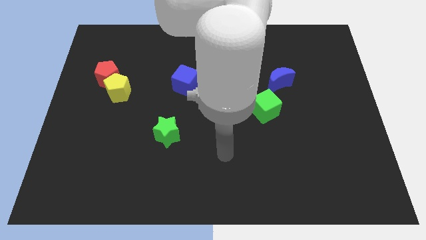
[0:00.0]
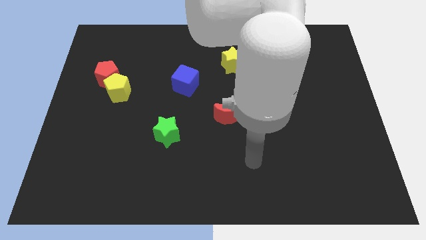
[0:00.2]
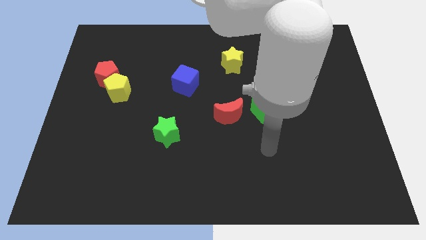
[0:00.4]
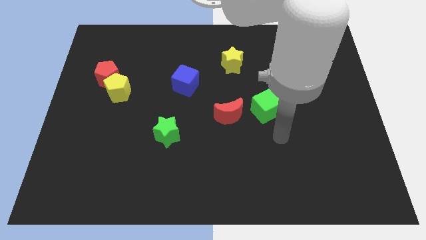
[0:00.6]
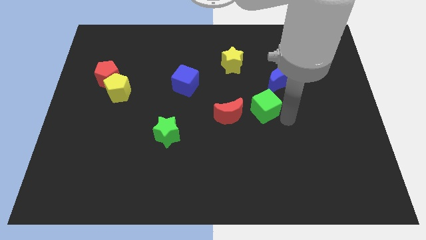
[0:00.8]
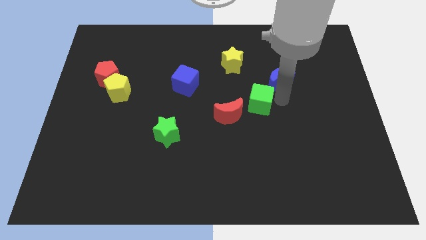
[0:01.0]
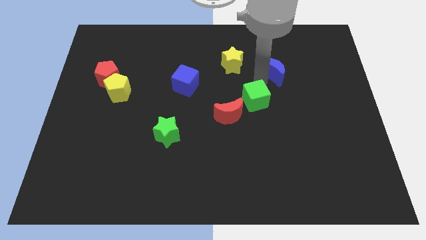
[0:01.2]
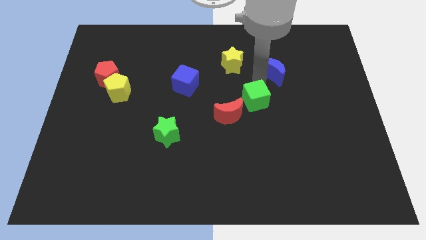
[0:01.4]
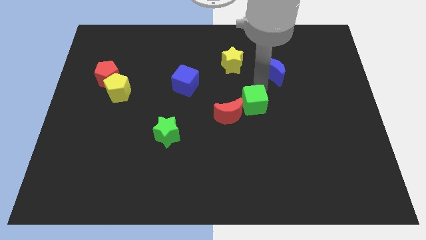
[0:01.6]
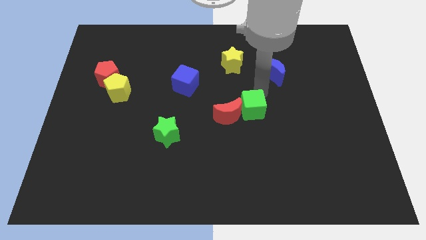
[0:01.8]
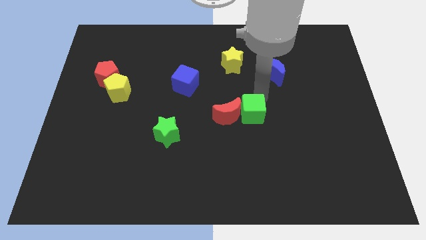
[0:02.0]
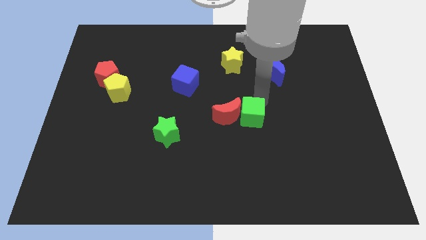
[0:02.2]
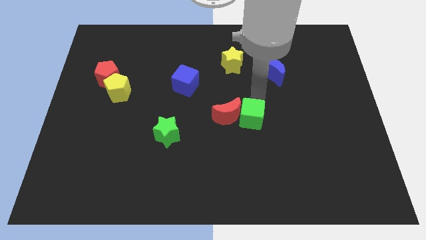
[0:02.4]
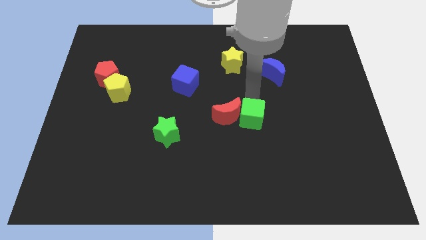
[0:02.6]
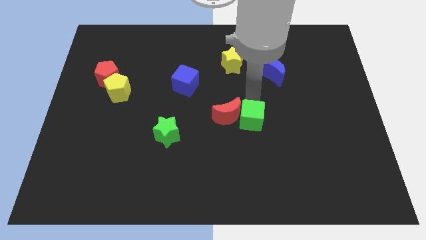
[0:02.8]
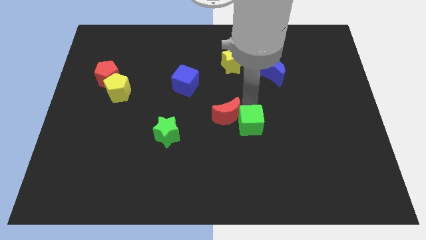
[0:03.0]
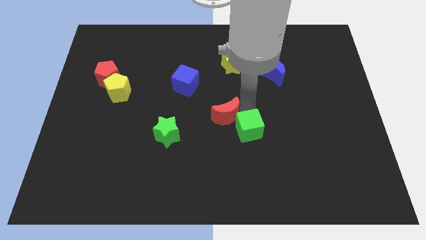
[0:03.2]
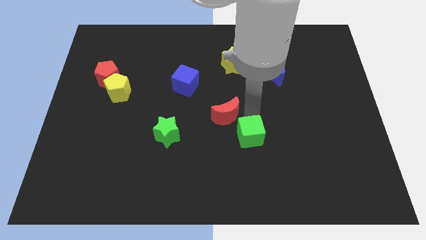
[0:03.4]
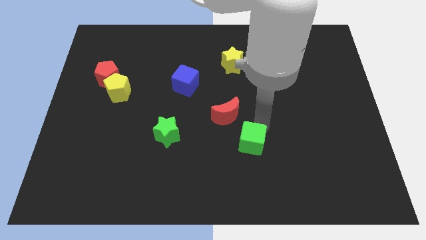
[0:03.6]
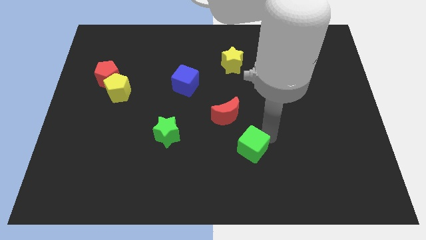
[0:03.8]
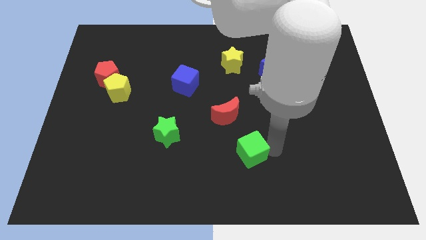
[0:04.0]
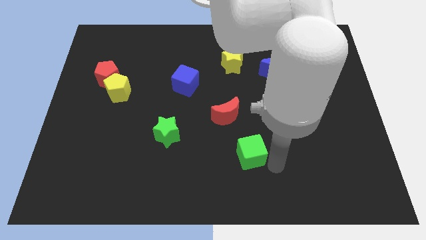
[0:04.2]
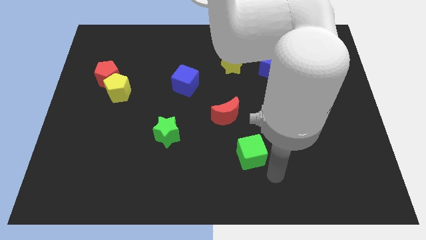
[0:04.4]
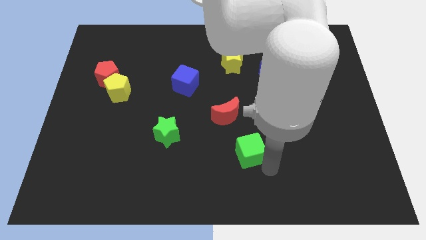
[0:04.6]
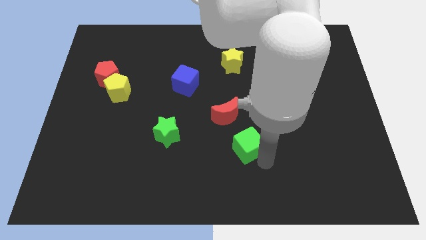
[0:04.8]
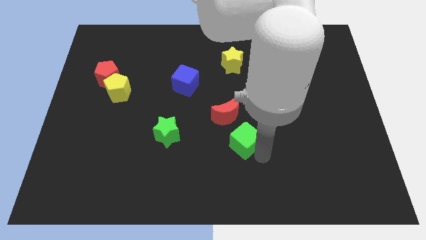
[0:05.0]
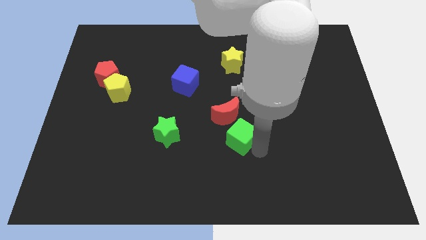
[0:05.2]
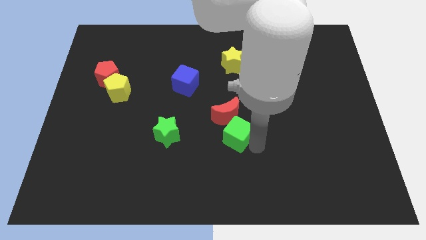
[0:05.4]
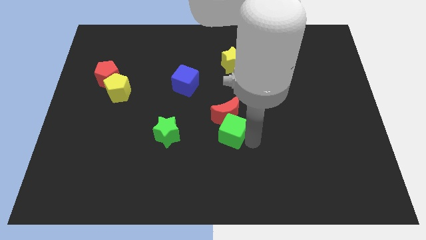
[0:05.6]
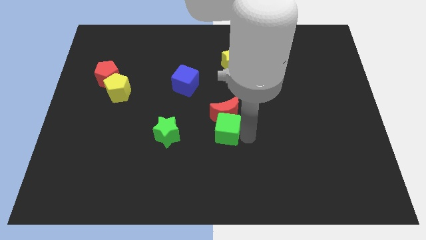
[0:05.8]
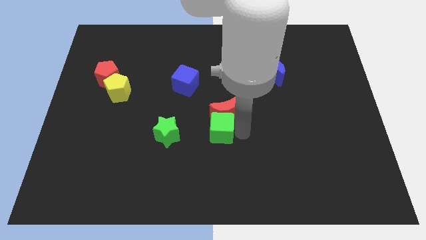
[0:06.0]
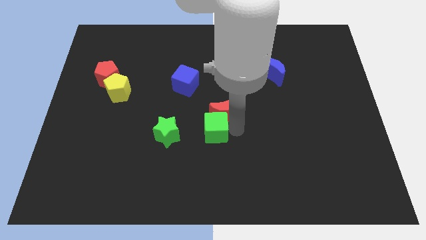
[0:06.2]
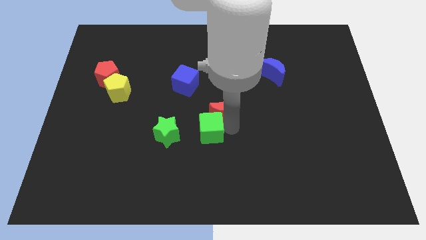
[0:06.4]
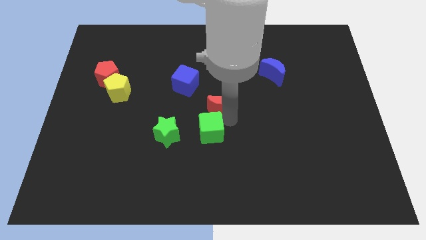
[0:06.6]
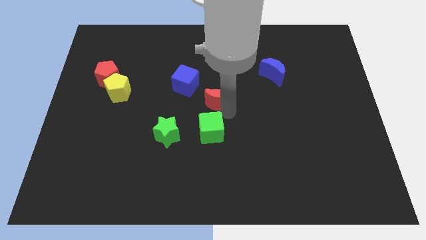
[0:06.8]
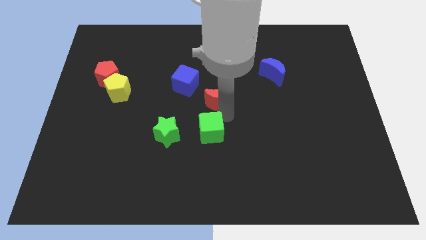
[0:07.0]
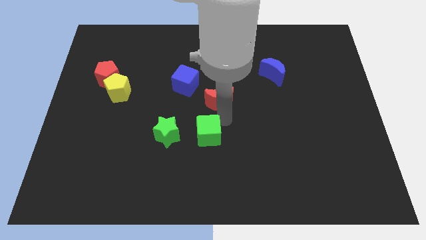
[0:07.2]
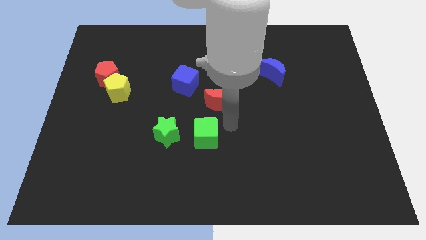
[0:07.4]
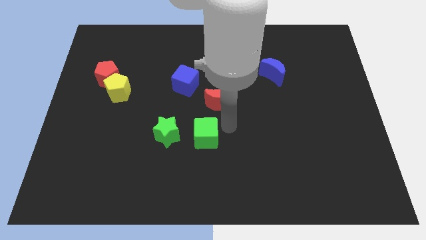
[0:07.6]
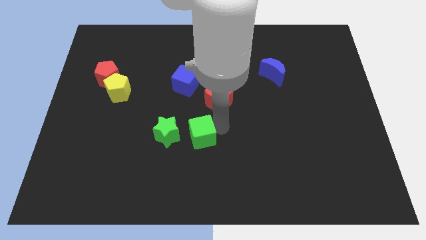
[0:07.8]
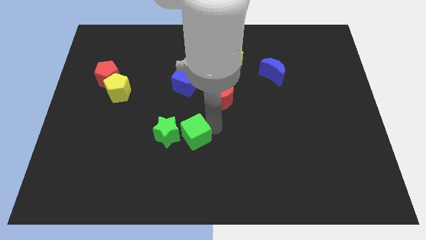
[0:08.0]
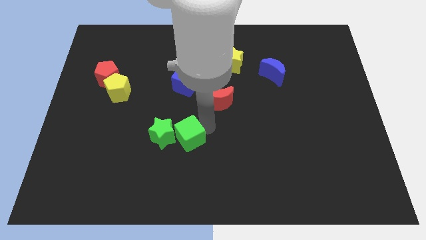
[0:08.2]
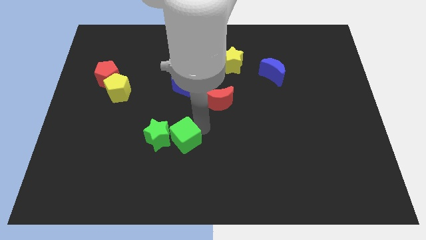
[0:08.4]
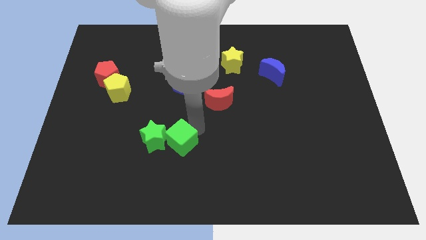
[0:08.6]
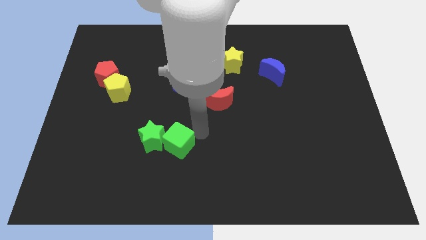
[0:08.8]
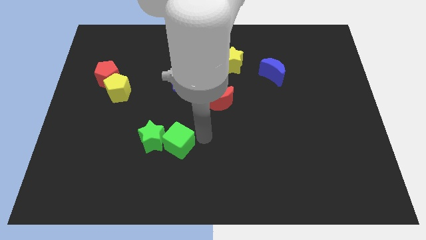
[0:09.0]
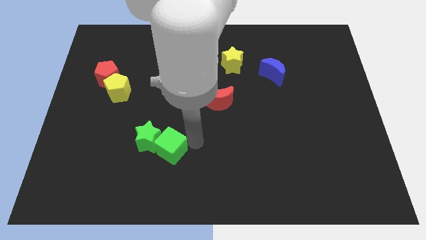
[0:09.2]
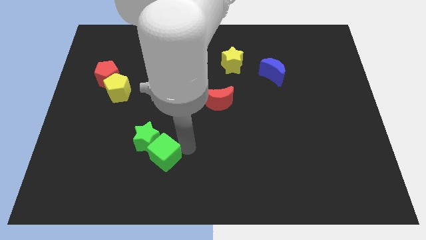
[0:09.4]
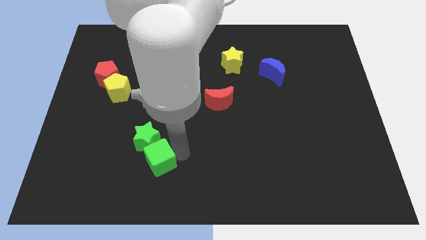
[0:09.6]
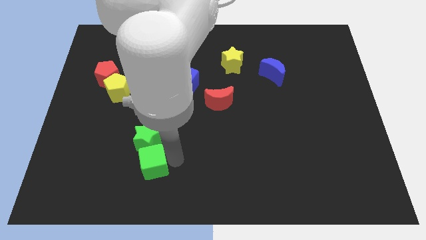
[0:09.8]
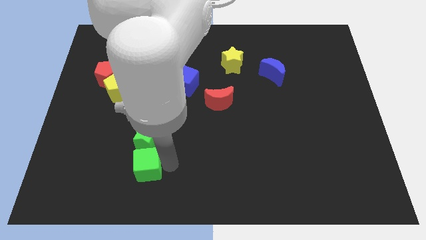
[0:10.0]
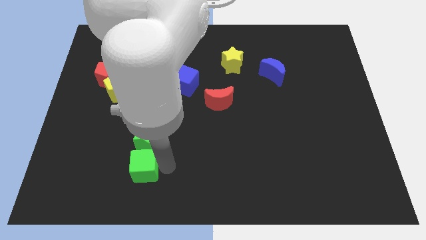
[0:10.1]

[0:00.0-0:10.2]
slide the green cube to the bottom left side of the green star

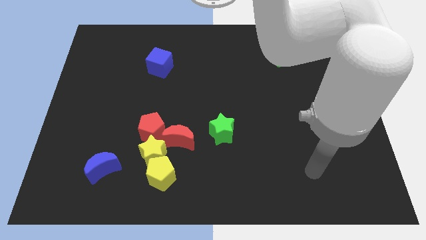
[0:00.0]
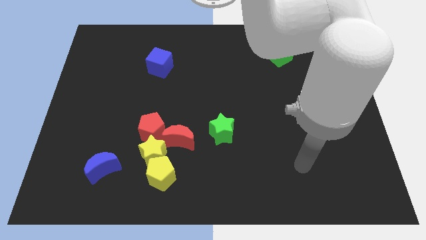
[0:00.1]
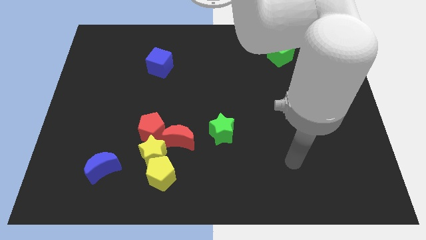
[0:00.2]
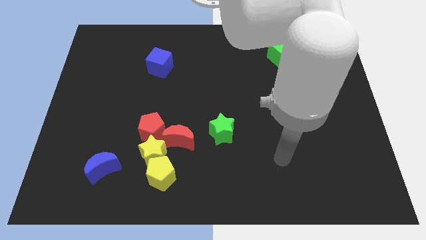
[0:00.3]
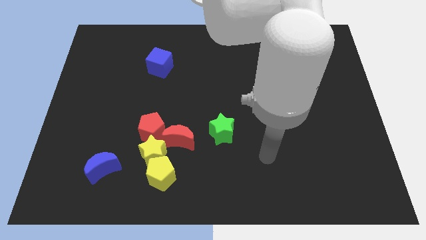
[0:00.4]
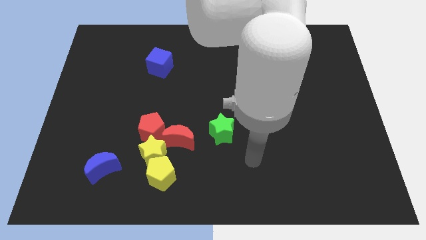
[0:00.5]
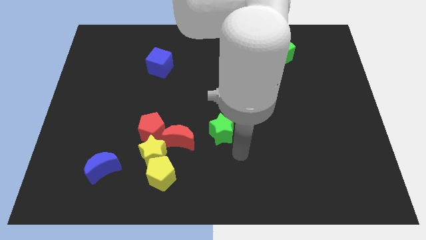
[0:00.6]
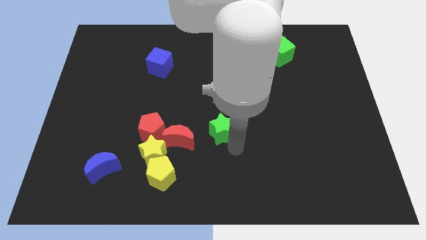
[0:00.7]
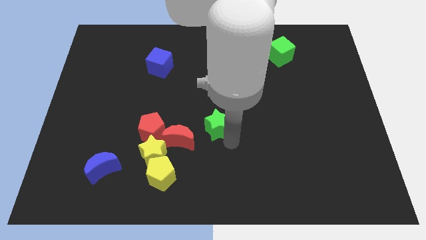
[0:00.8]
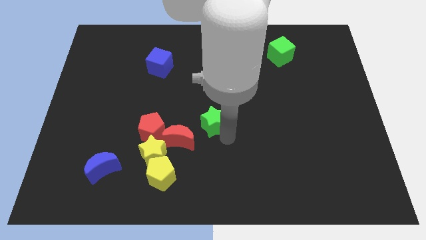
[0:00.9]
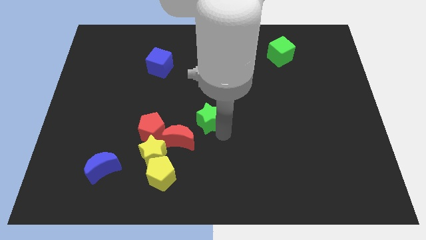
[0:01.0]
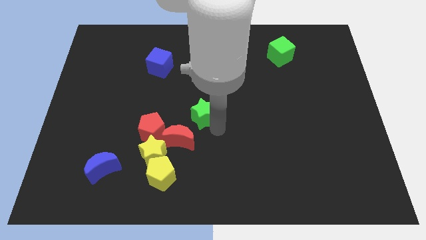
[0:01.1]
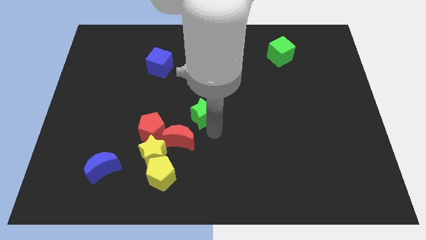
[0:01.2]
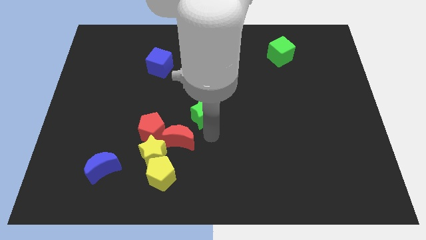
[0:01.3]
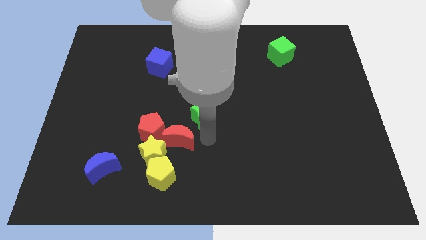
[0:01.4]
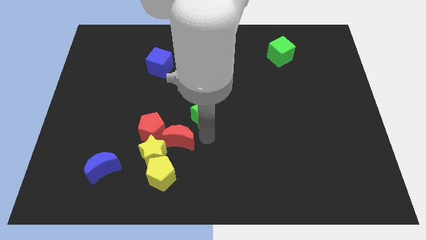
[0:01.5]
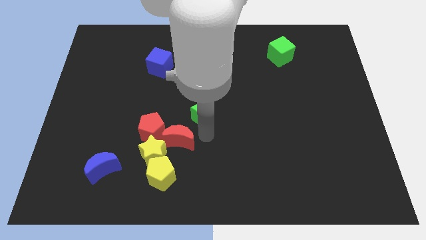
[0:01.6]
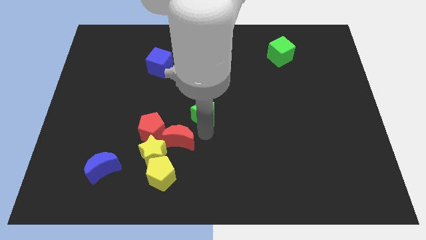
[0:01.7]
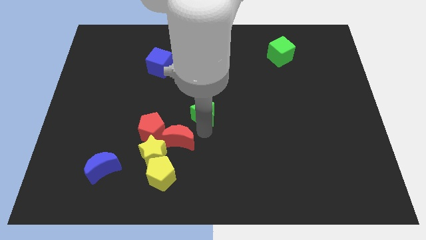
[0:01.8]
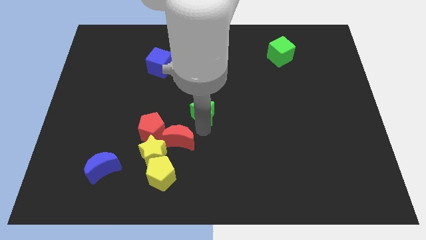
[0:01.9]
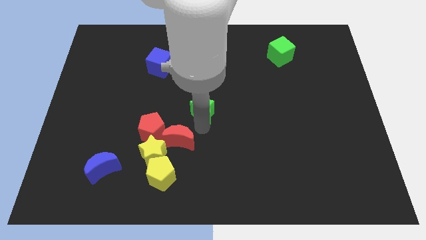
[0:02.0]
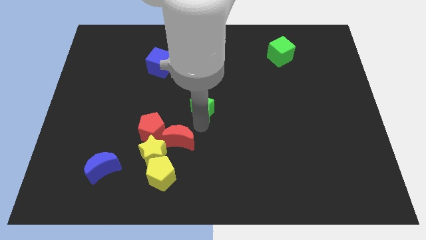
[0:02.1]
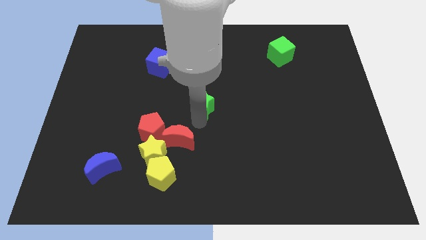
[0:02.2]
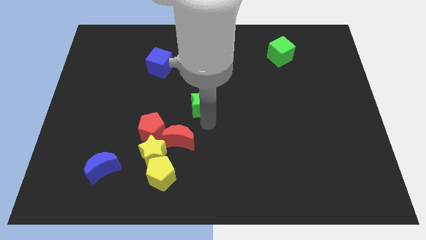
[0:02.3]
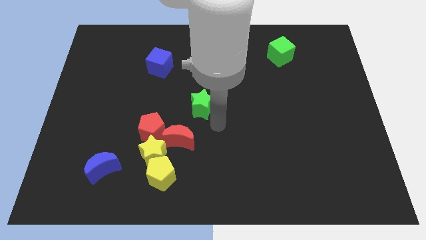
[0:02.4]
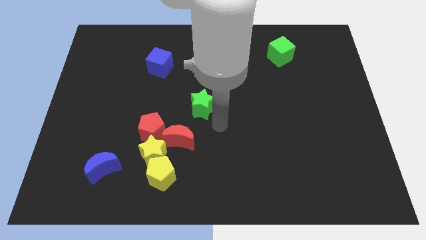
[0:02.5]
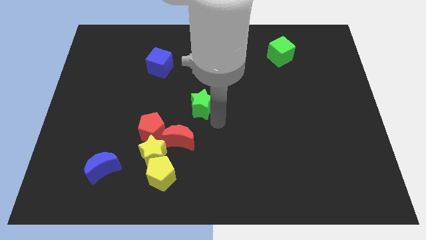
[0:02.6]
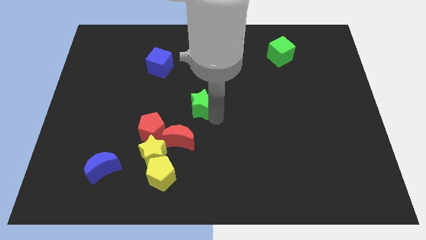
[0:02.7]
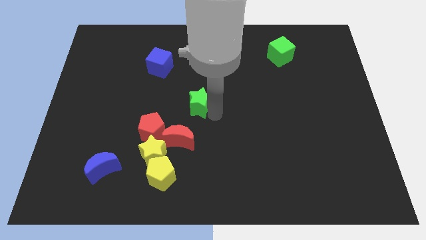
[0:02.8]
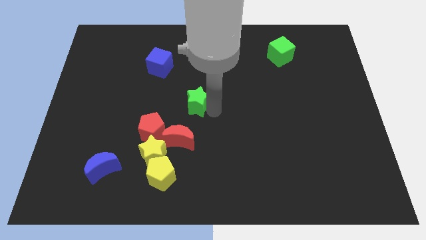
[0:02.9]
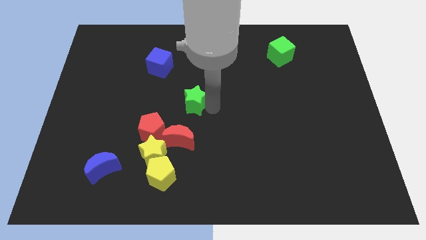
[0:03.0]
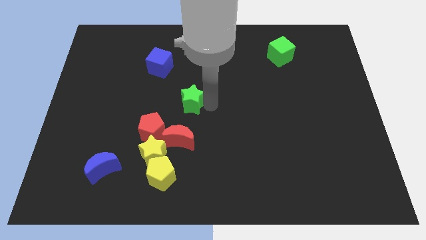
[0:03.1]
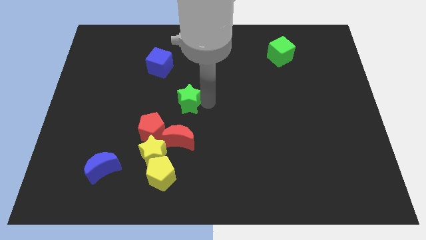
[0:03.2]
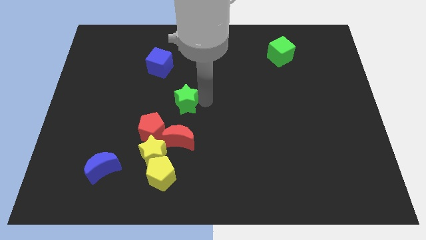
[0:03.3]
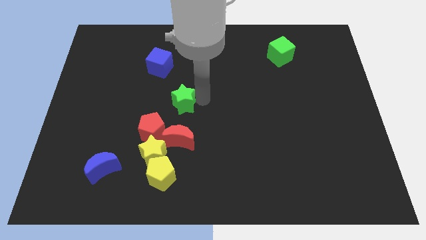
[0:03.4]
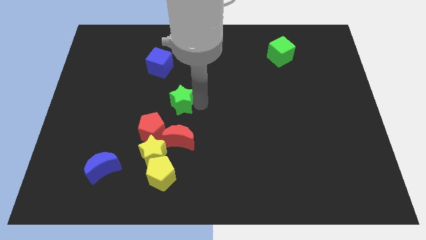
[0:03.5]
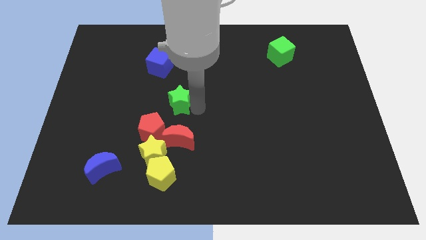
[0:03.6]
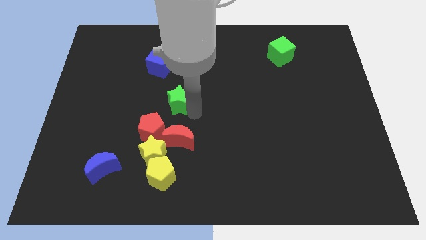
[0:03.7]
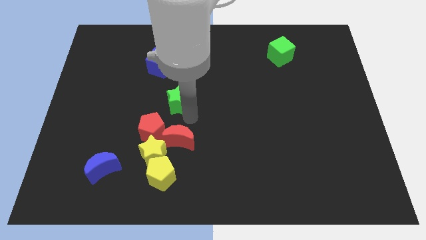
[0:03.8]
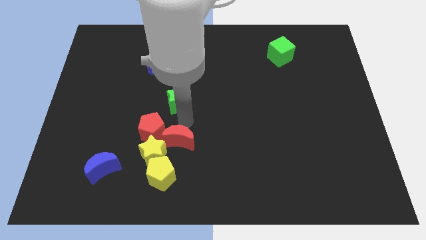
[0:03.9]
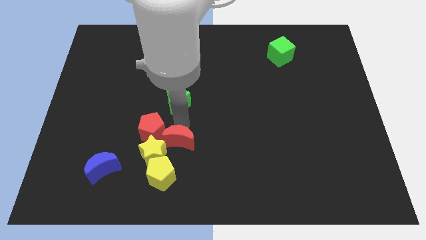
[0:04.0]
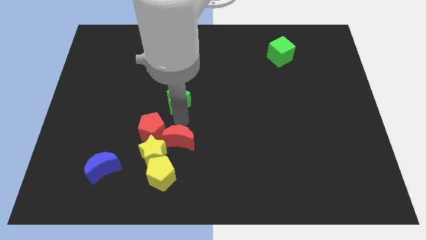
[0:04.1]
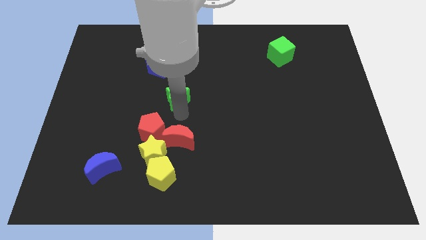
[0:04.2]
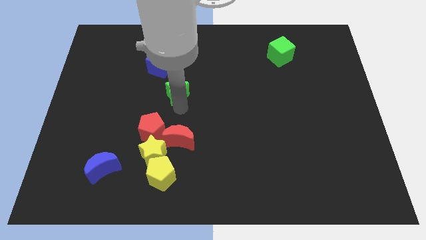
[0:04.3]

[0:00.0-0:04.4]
put the green star to the bottom right side of the blue cube
